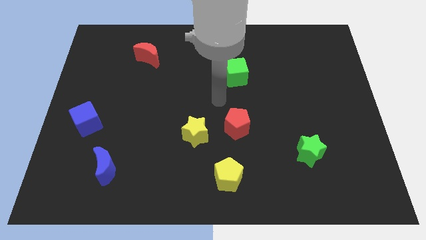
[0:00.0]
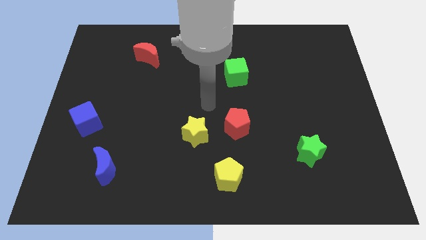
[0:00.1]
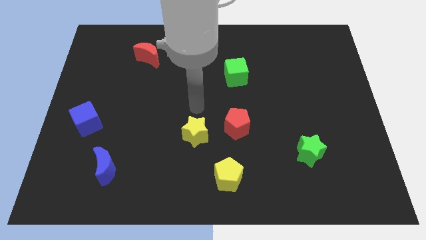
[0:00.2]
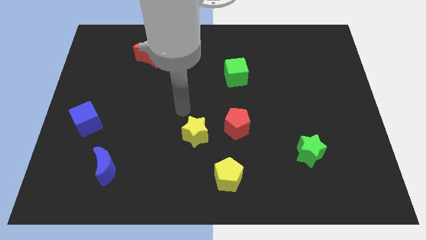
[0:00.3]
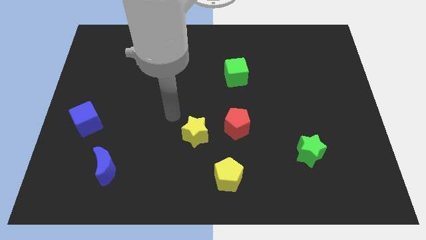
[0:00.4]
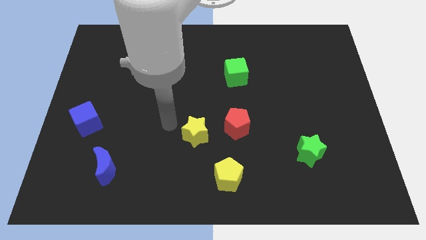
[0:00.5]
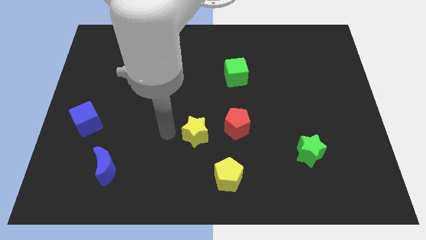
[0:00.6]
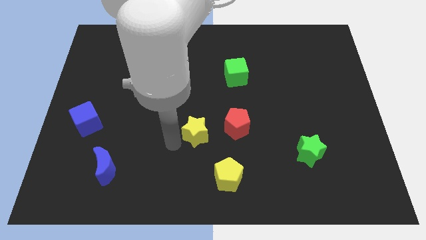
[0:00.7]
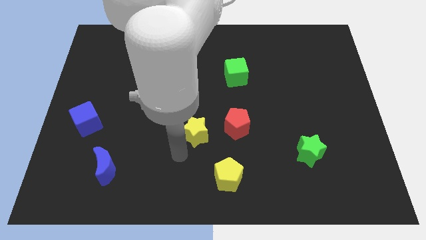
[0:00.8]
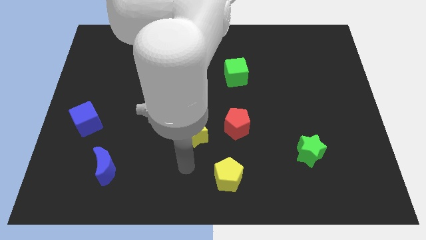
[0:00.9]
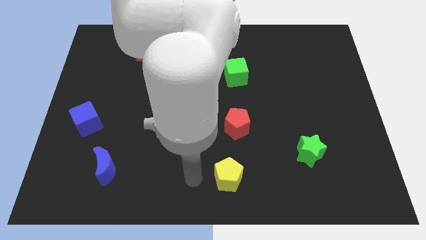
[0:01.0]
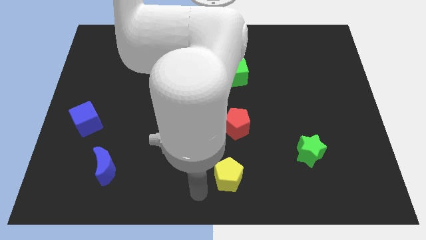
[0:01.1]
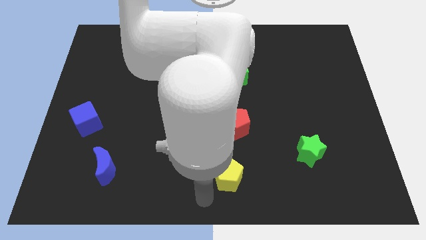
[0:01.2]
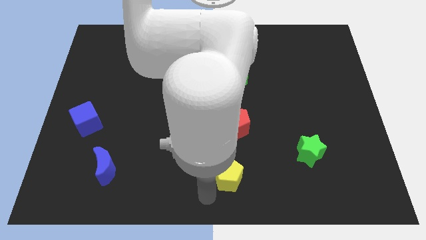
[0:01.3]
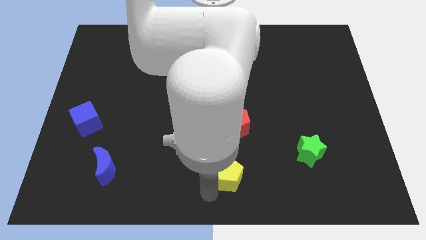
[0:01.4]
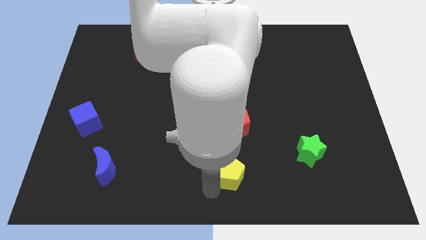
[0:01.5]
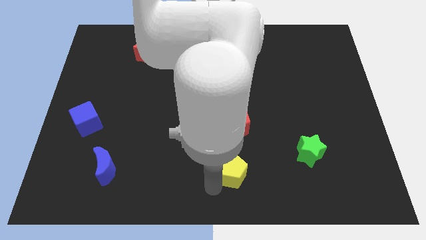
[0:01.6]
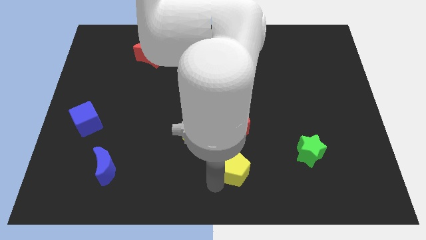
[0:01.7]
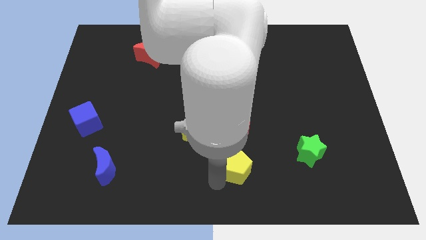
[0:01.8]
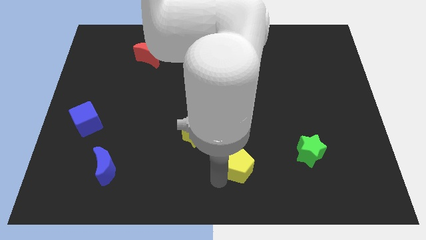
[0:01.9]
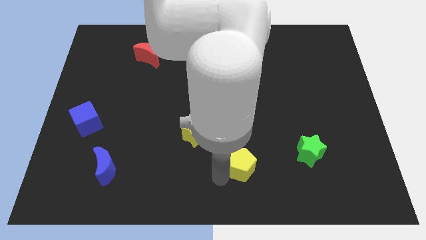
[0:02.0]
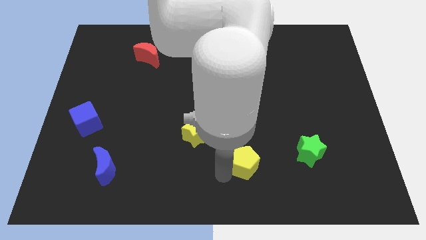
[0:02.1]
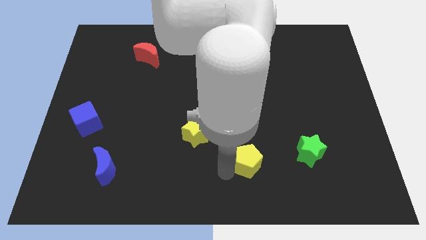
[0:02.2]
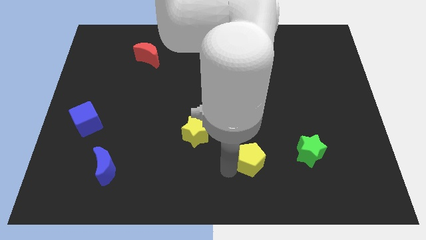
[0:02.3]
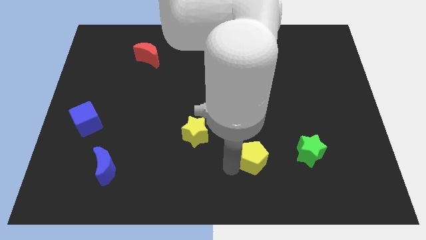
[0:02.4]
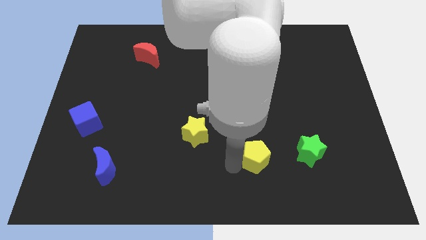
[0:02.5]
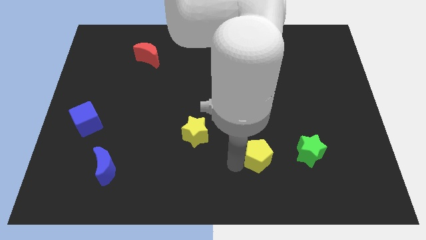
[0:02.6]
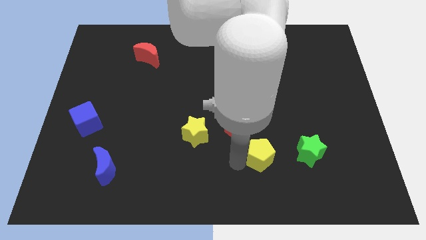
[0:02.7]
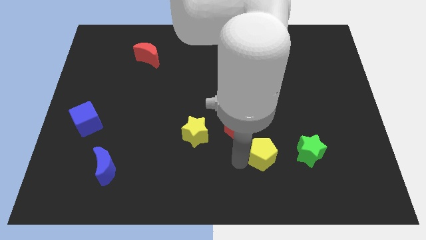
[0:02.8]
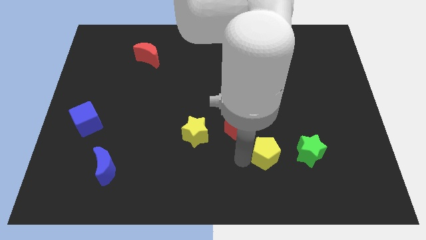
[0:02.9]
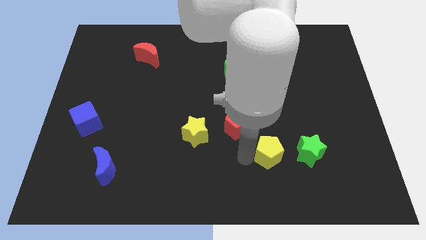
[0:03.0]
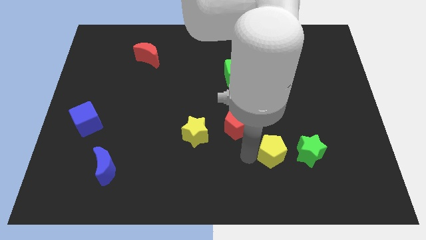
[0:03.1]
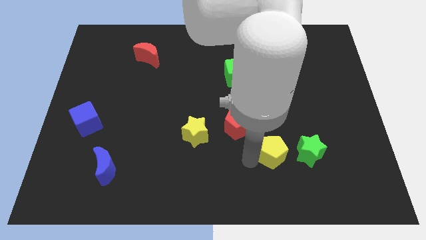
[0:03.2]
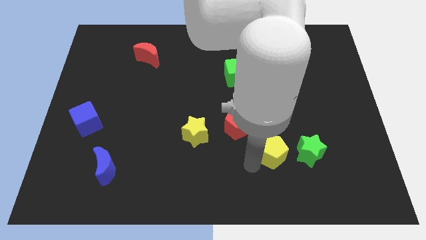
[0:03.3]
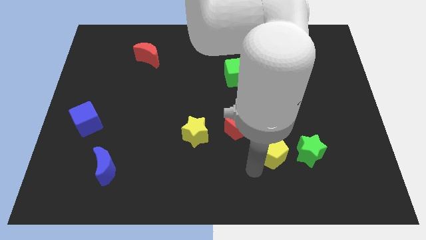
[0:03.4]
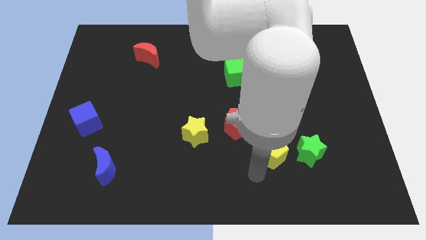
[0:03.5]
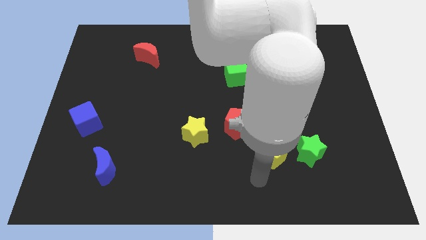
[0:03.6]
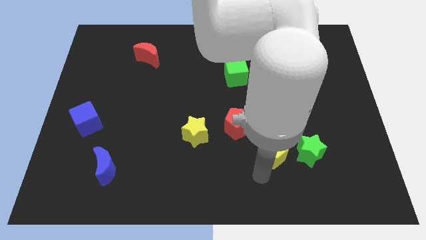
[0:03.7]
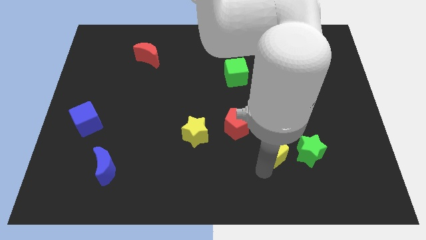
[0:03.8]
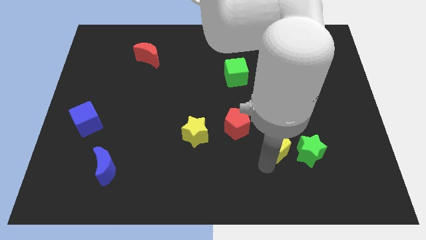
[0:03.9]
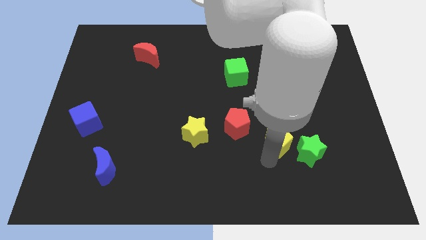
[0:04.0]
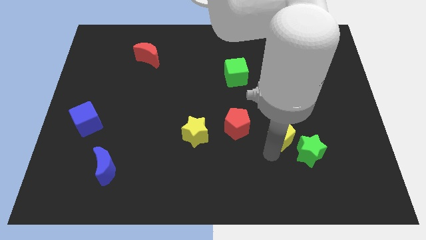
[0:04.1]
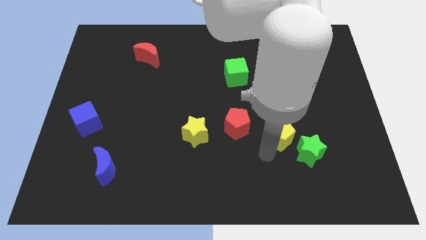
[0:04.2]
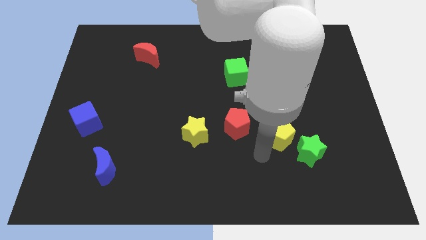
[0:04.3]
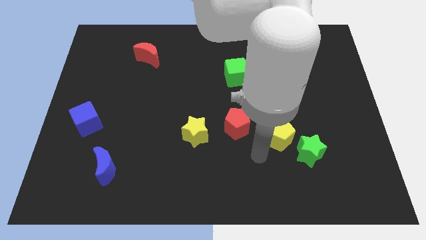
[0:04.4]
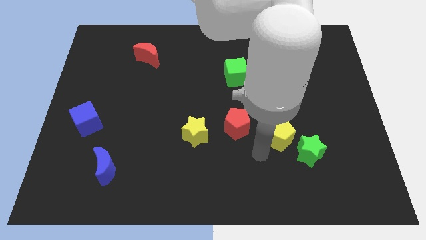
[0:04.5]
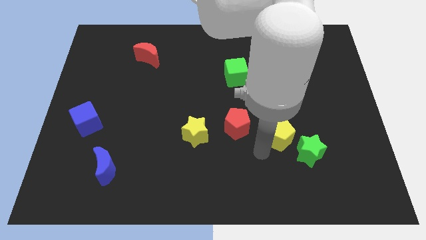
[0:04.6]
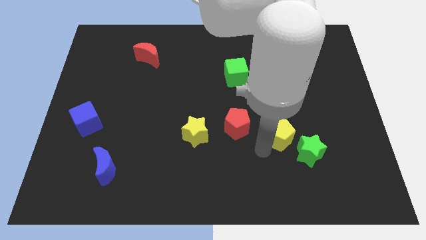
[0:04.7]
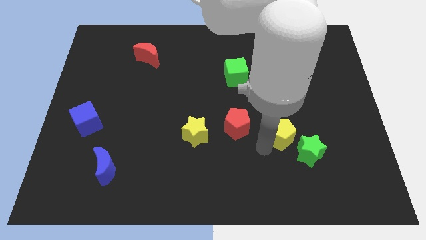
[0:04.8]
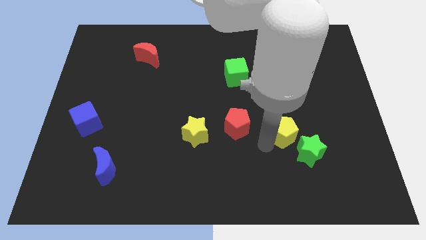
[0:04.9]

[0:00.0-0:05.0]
put the yellow pentagon above the green star

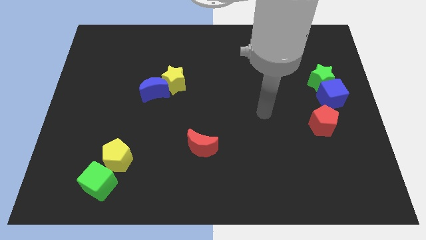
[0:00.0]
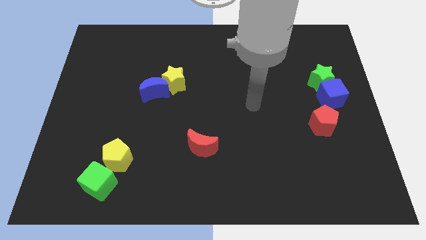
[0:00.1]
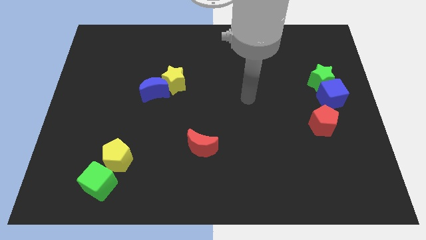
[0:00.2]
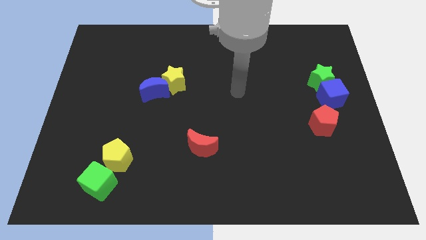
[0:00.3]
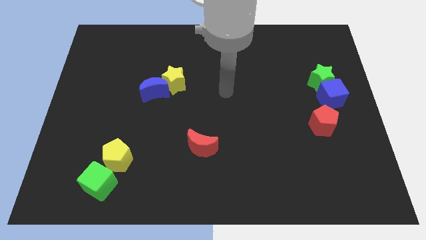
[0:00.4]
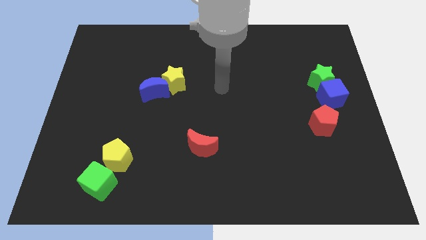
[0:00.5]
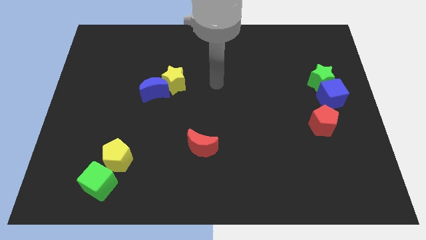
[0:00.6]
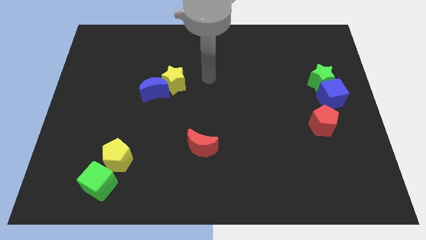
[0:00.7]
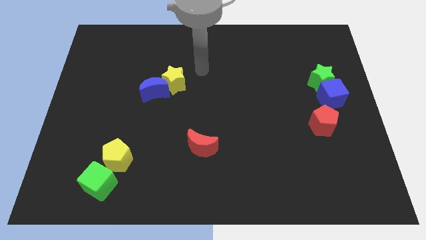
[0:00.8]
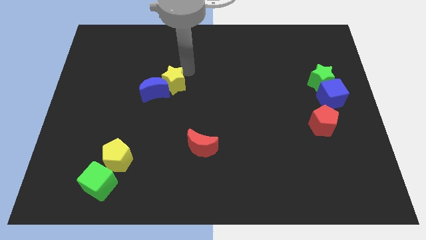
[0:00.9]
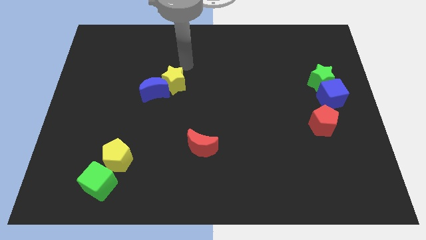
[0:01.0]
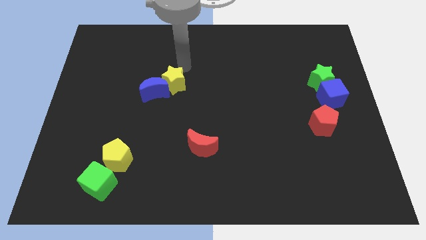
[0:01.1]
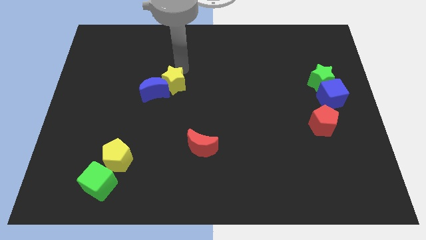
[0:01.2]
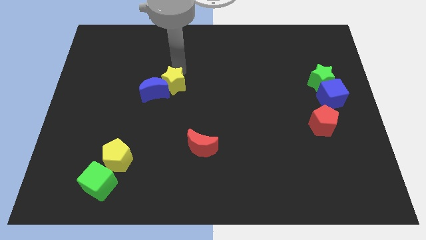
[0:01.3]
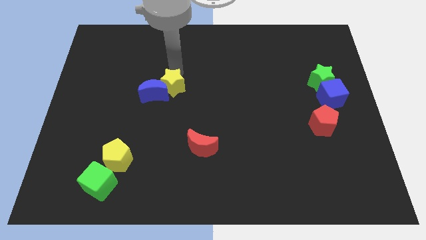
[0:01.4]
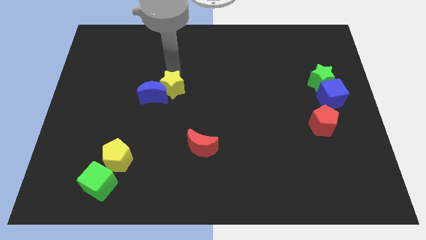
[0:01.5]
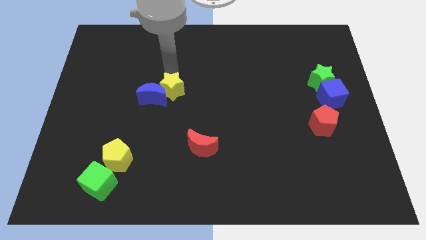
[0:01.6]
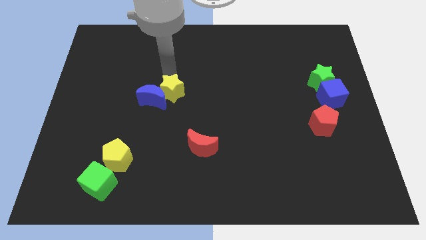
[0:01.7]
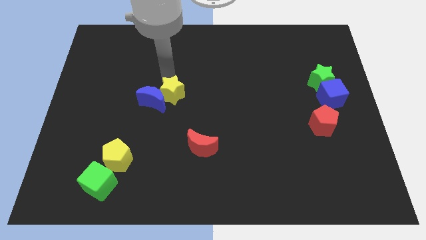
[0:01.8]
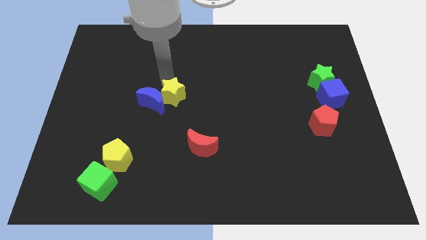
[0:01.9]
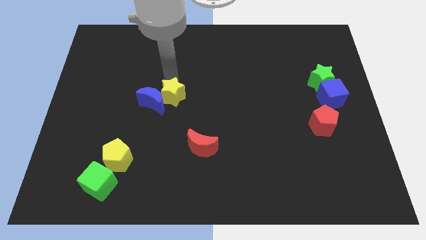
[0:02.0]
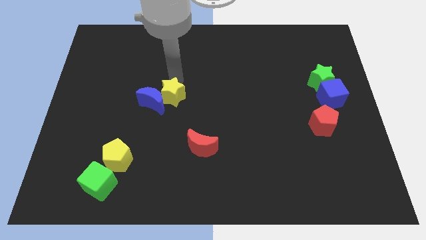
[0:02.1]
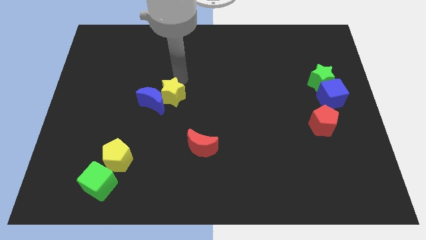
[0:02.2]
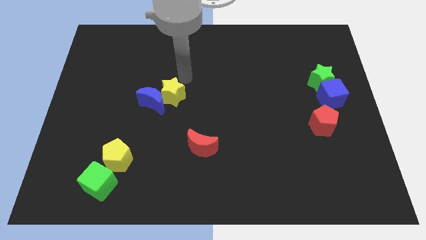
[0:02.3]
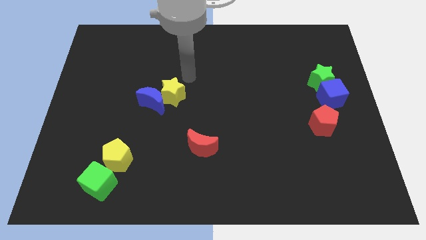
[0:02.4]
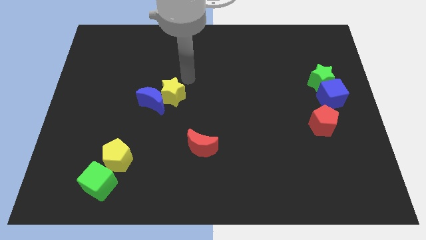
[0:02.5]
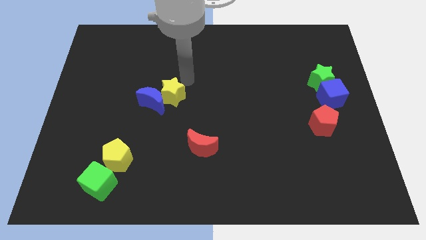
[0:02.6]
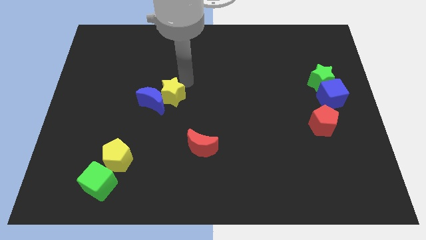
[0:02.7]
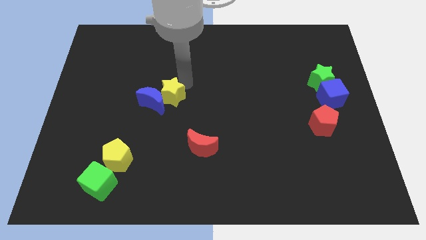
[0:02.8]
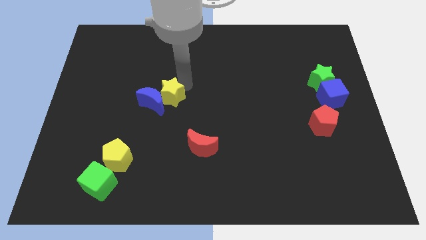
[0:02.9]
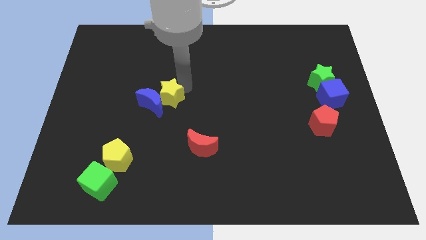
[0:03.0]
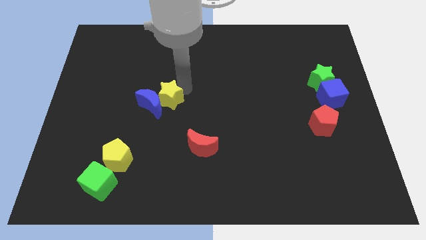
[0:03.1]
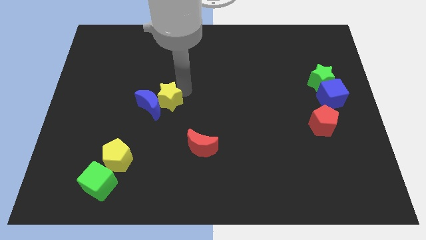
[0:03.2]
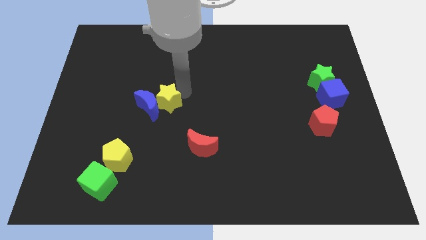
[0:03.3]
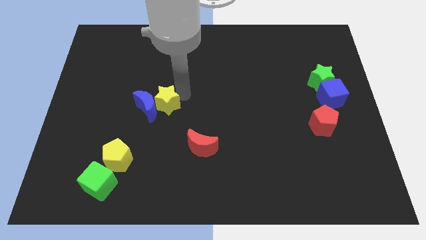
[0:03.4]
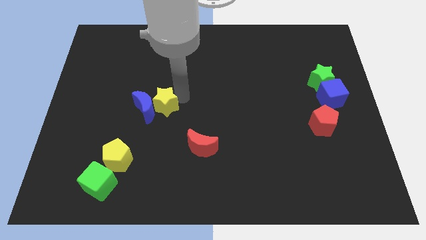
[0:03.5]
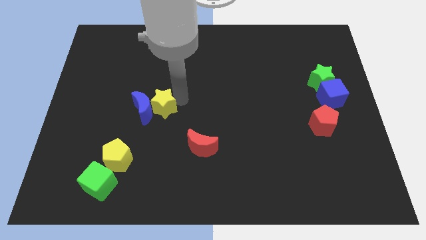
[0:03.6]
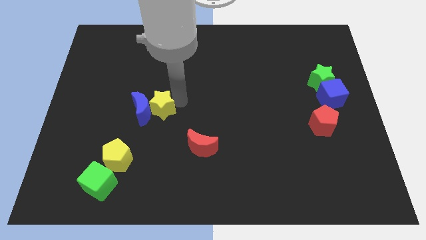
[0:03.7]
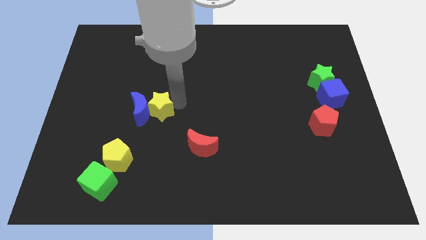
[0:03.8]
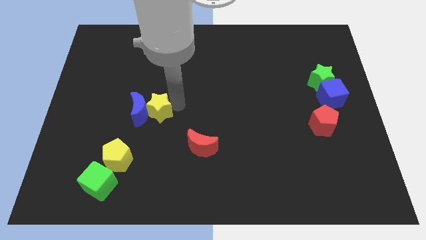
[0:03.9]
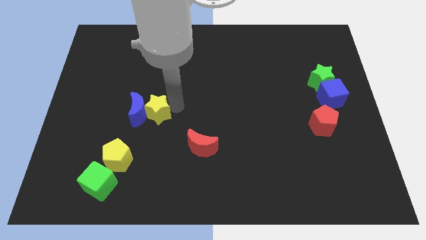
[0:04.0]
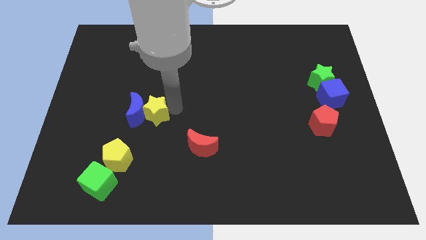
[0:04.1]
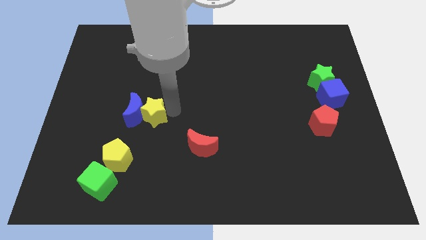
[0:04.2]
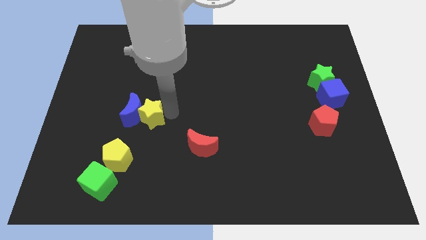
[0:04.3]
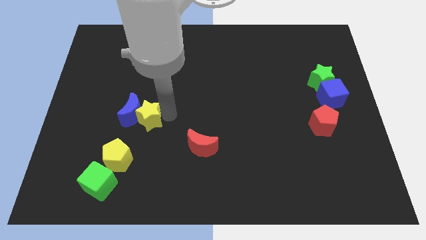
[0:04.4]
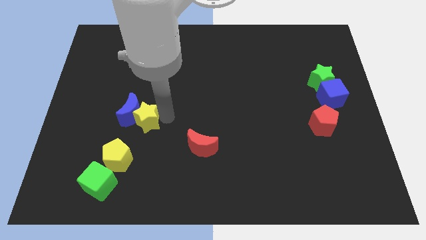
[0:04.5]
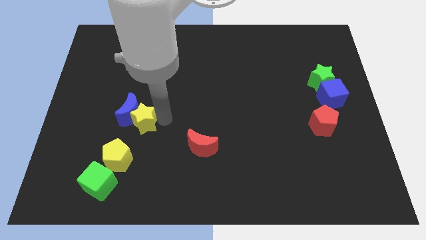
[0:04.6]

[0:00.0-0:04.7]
push the yellow star above the yellow pentagon
